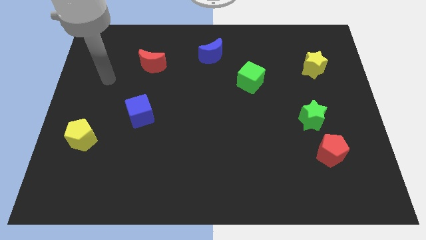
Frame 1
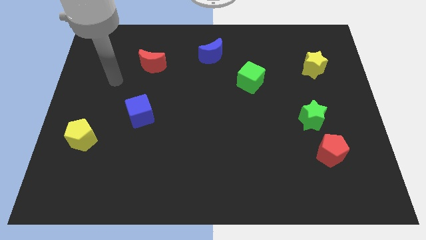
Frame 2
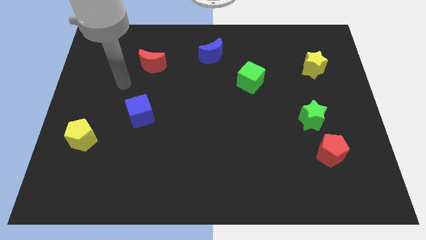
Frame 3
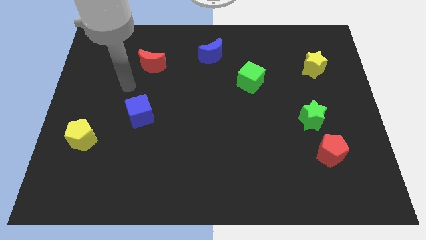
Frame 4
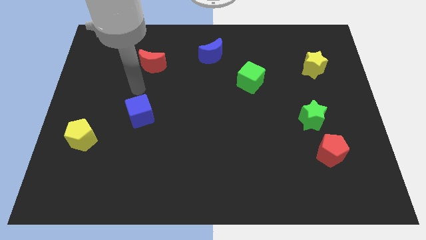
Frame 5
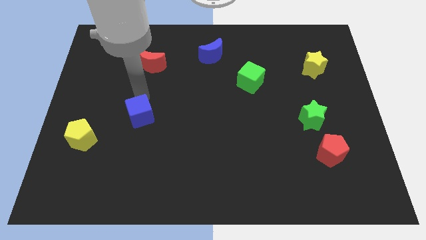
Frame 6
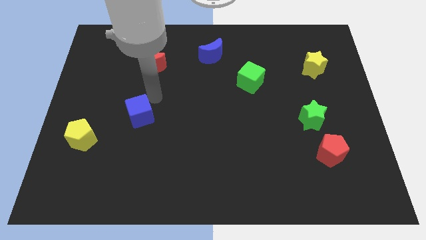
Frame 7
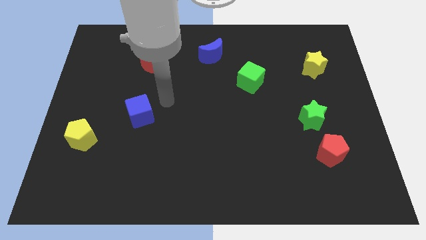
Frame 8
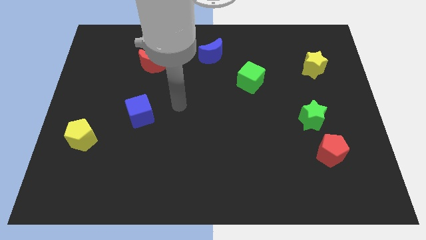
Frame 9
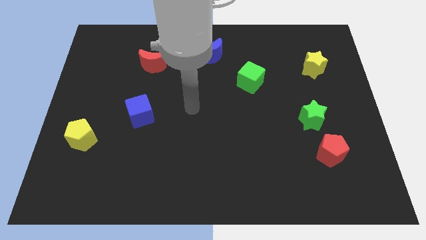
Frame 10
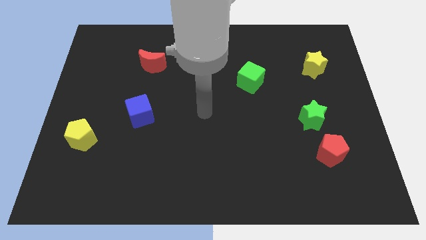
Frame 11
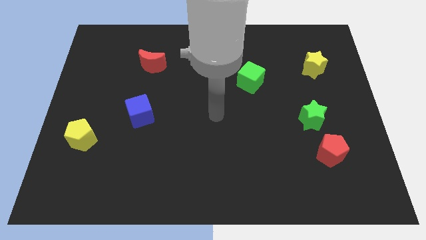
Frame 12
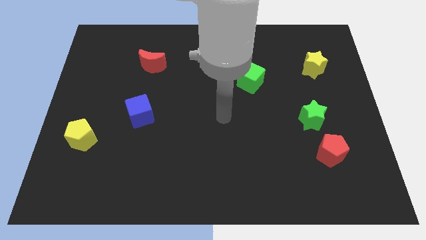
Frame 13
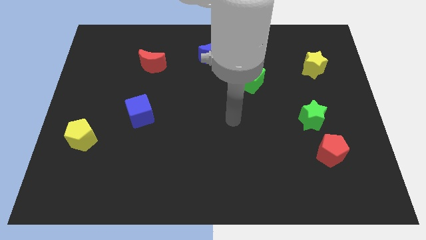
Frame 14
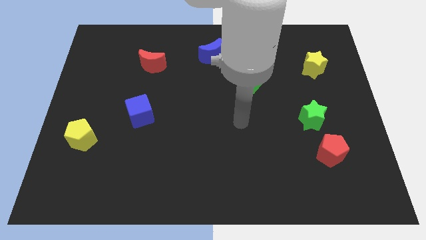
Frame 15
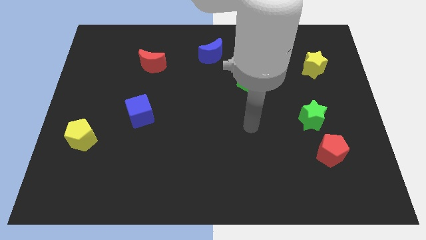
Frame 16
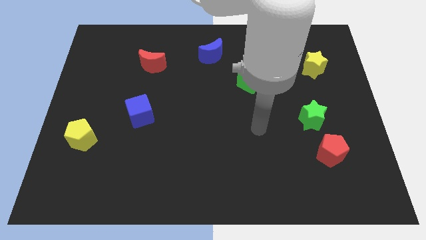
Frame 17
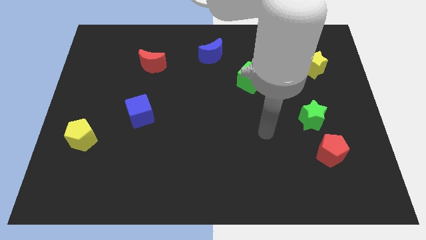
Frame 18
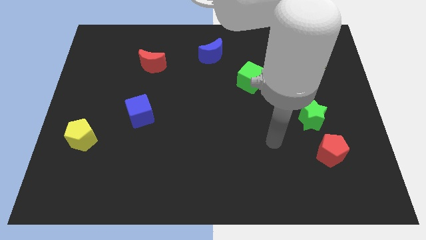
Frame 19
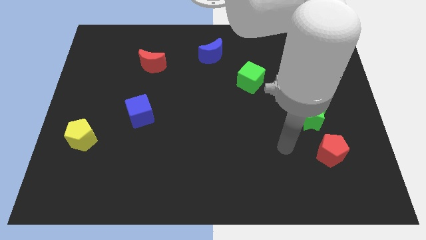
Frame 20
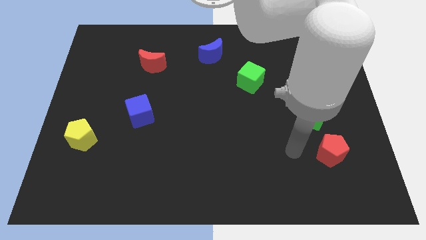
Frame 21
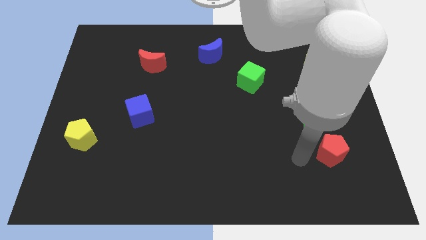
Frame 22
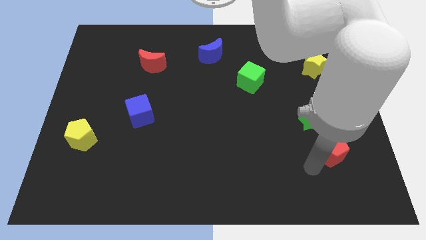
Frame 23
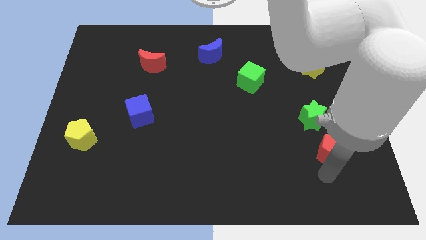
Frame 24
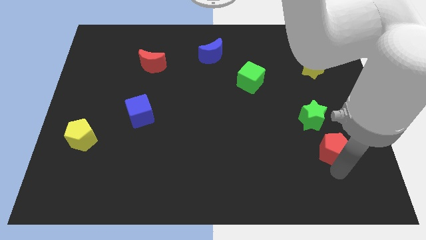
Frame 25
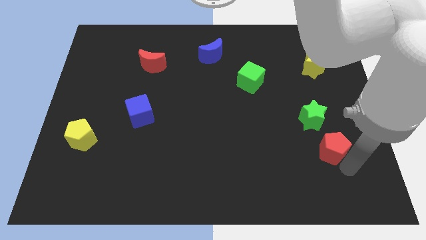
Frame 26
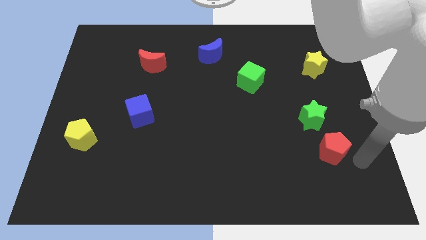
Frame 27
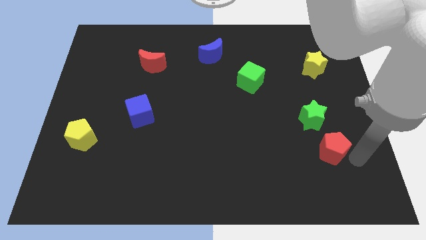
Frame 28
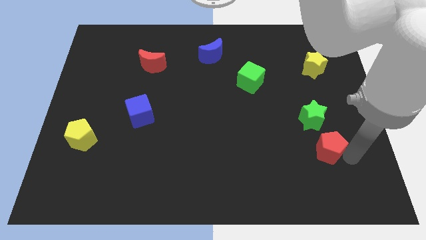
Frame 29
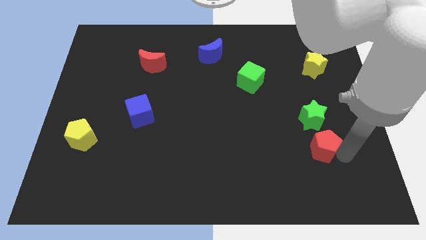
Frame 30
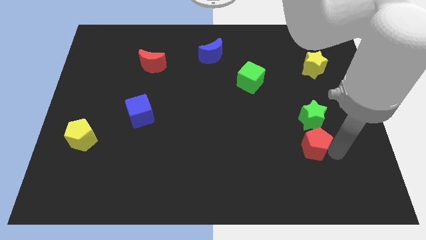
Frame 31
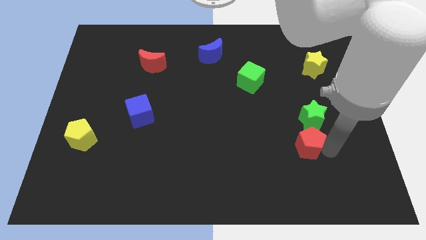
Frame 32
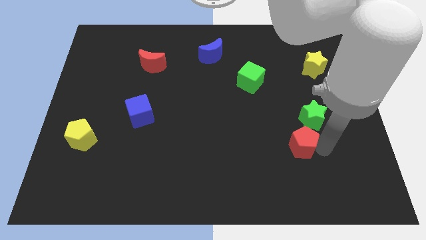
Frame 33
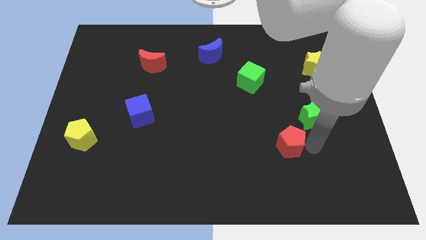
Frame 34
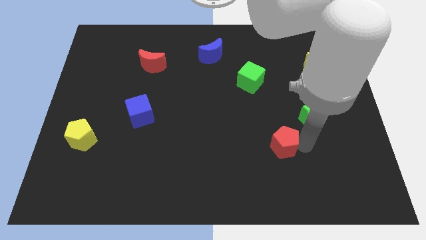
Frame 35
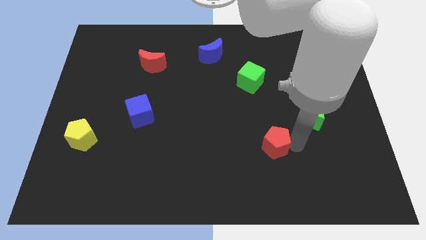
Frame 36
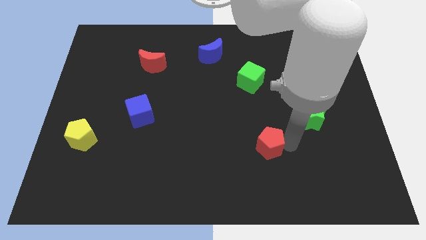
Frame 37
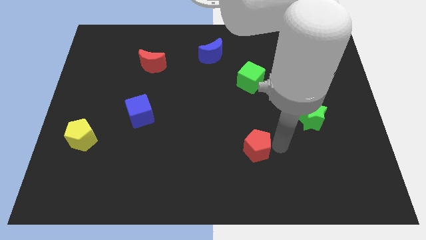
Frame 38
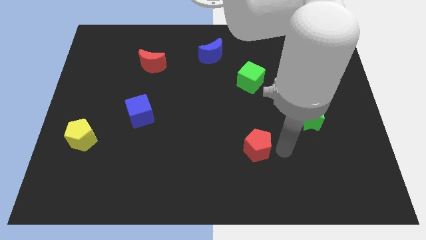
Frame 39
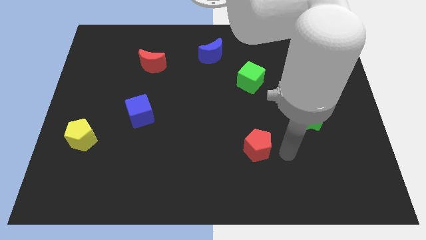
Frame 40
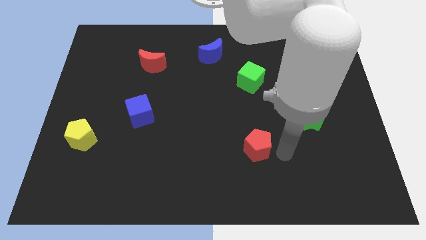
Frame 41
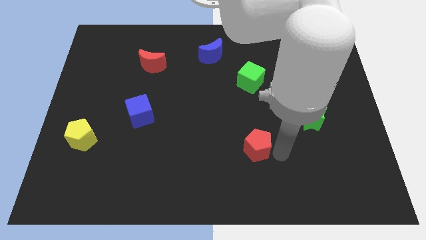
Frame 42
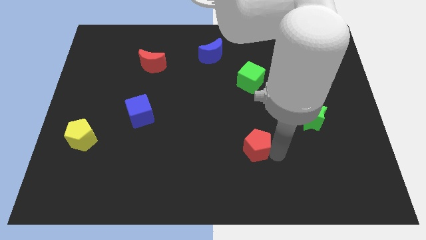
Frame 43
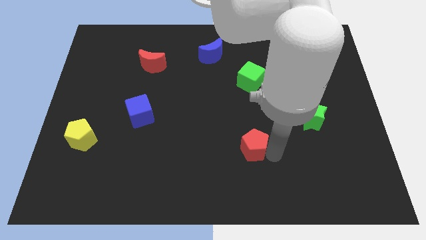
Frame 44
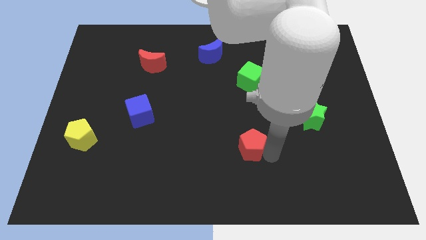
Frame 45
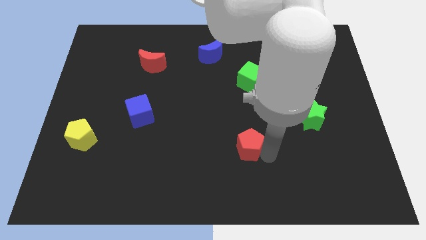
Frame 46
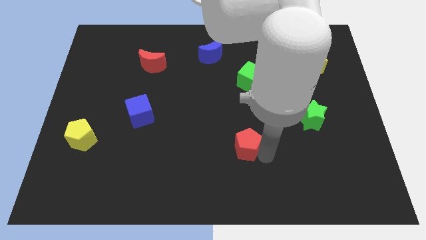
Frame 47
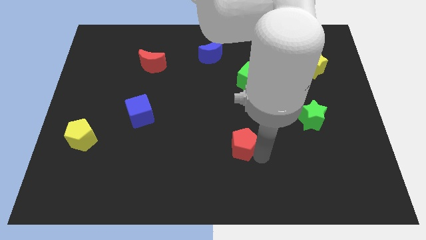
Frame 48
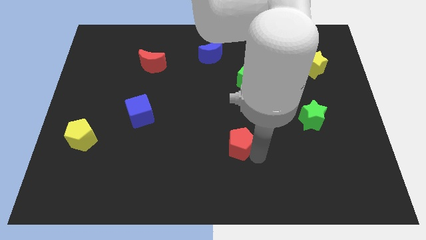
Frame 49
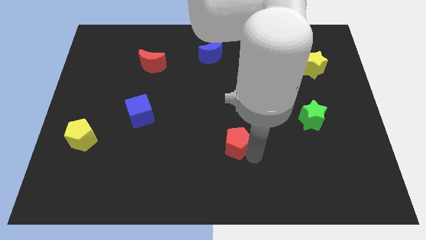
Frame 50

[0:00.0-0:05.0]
slide the red pentagon to the left

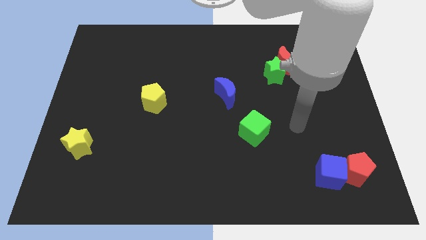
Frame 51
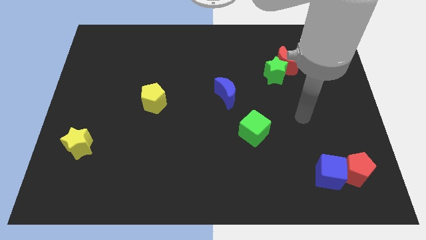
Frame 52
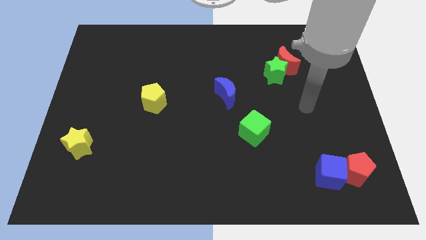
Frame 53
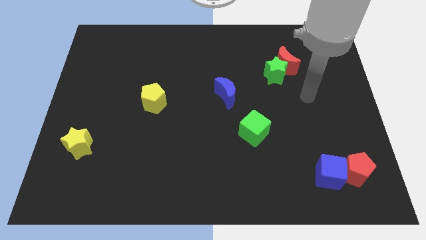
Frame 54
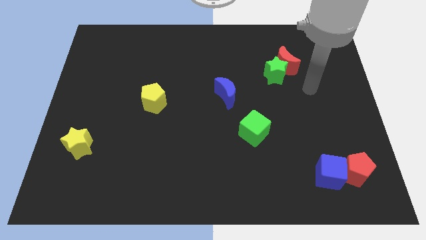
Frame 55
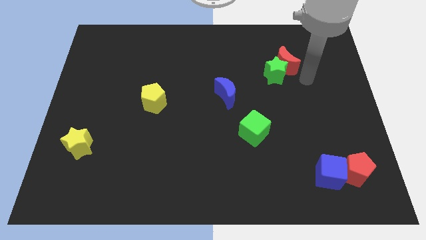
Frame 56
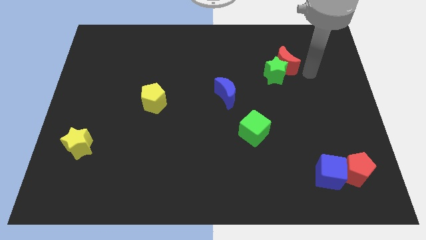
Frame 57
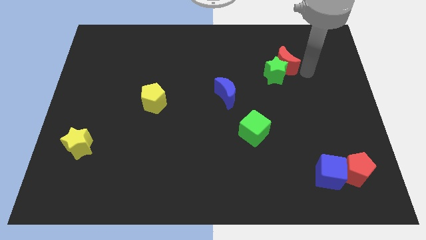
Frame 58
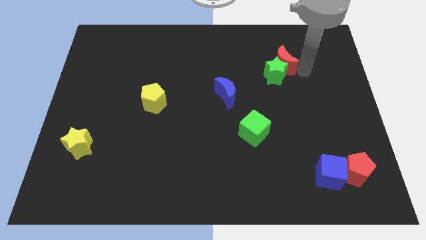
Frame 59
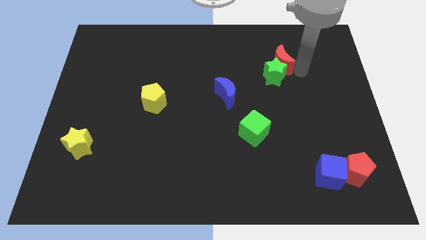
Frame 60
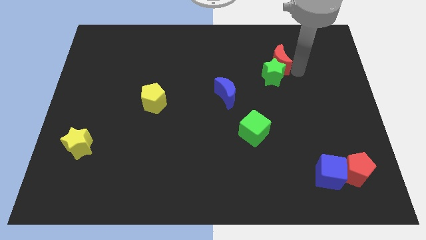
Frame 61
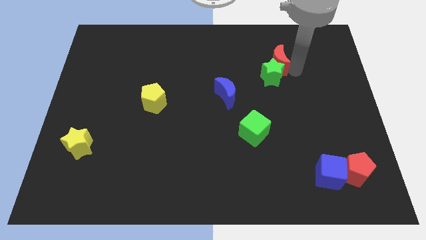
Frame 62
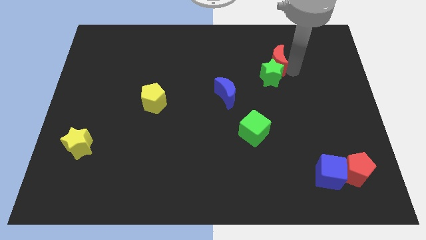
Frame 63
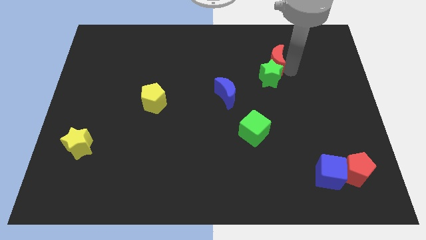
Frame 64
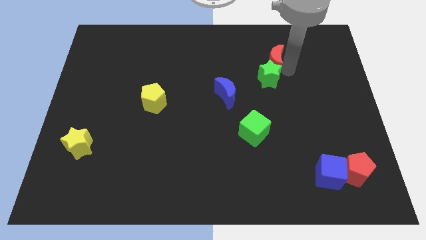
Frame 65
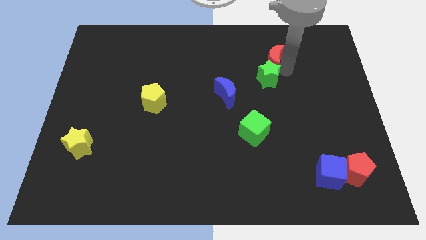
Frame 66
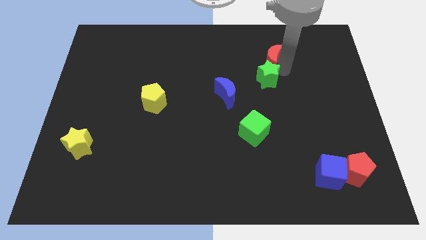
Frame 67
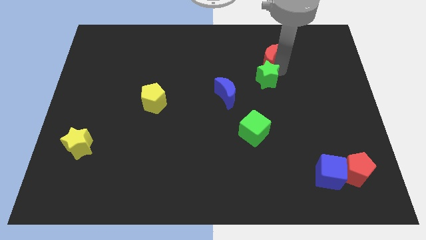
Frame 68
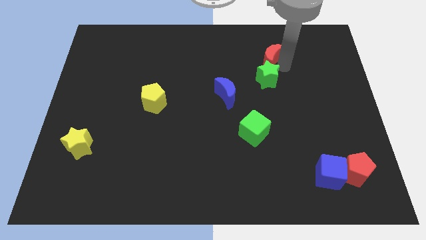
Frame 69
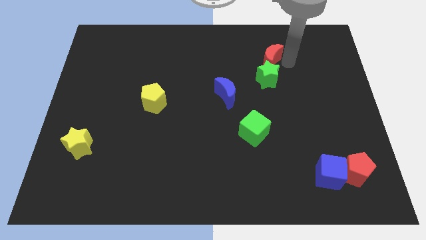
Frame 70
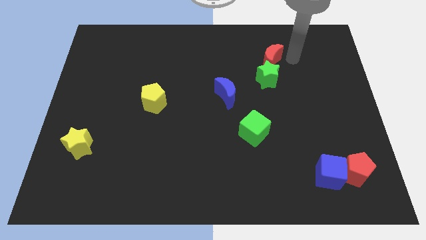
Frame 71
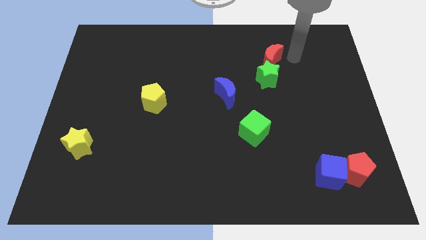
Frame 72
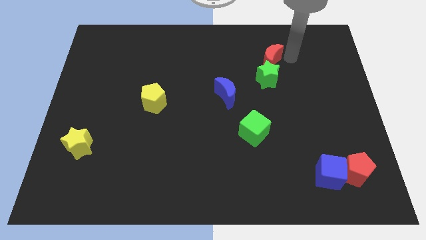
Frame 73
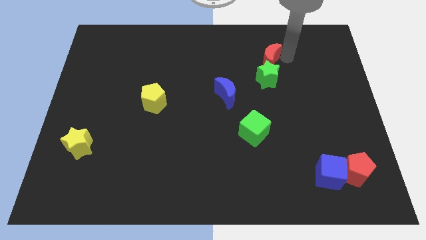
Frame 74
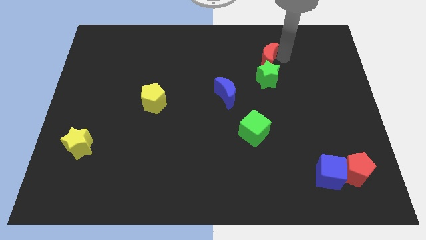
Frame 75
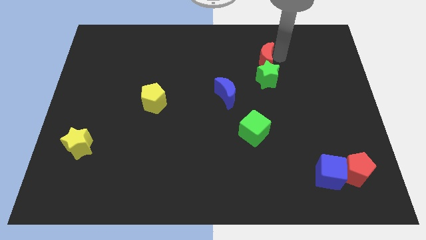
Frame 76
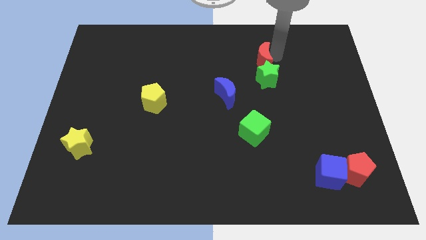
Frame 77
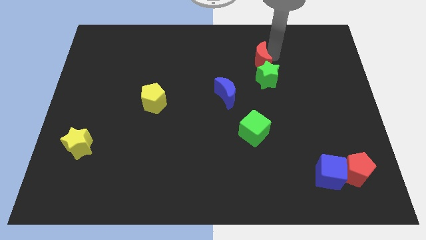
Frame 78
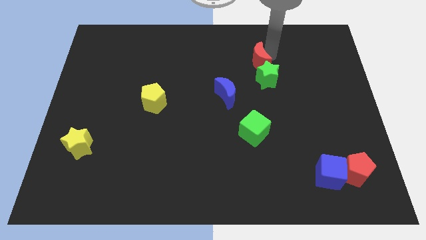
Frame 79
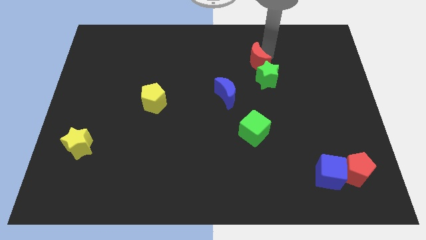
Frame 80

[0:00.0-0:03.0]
slide the red moon slightly to the left
